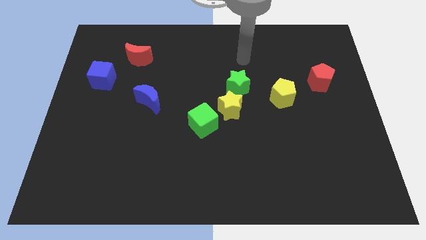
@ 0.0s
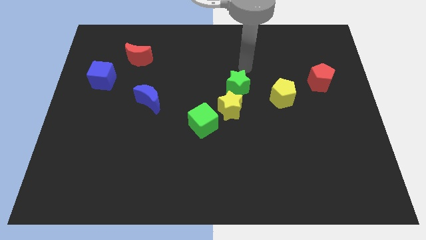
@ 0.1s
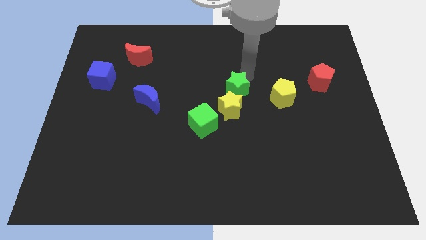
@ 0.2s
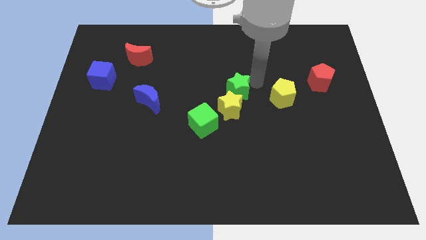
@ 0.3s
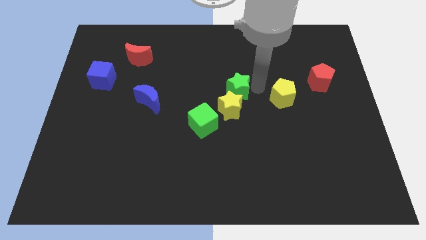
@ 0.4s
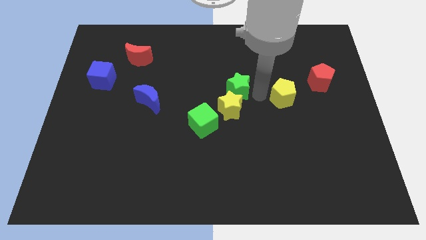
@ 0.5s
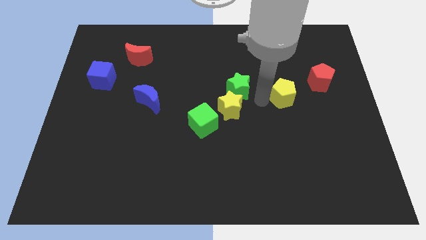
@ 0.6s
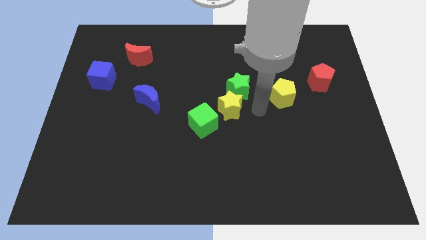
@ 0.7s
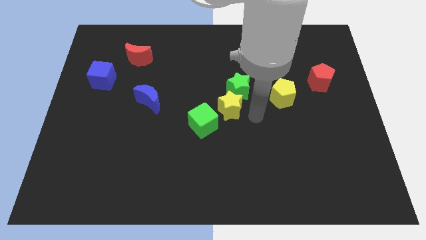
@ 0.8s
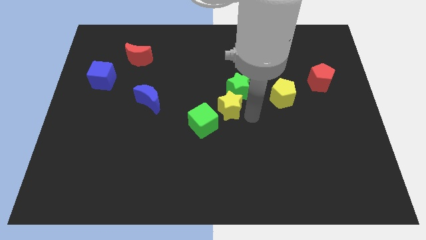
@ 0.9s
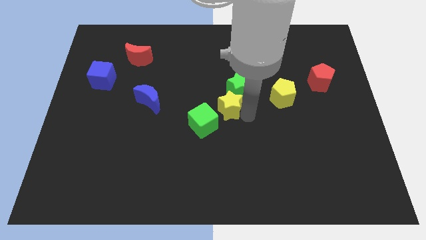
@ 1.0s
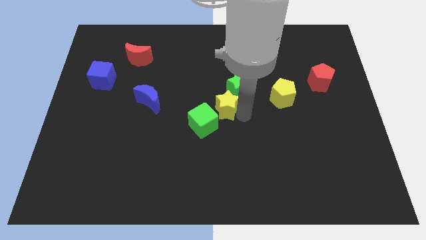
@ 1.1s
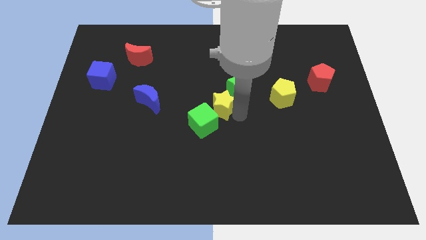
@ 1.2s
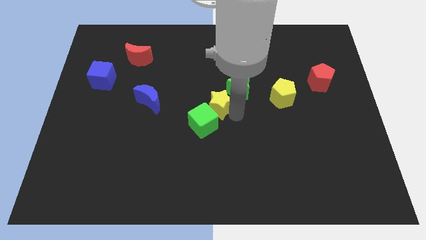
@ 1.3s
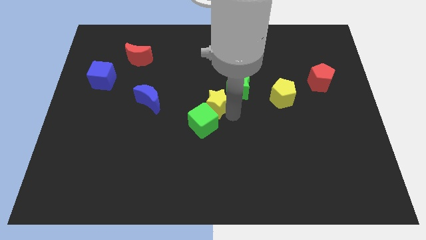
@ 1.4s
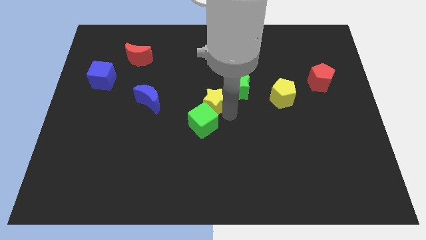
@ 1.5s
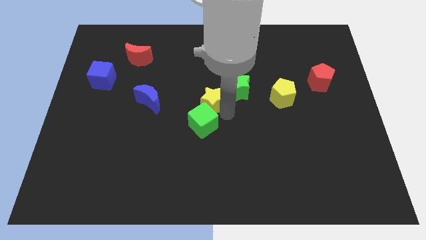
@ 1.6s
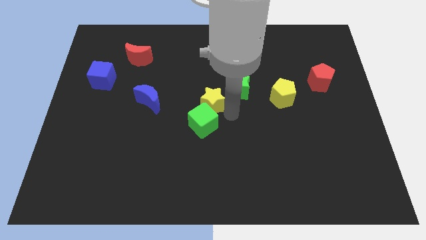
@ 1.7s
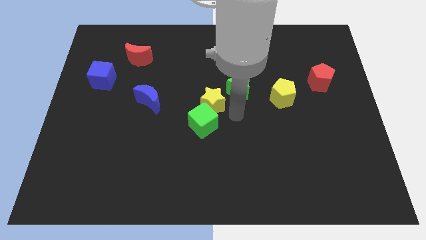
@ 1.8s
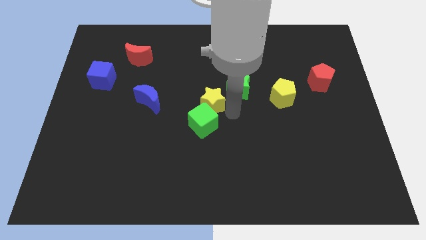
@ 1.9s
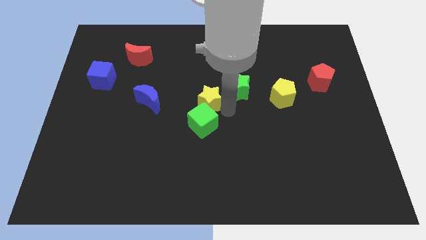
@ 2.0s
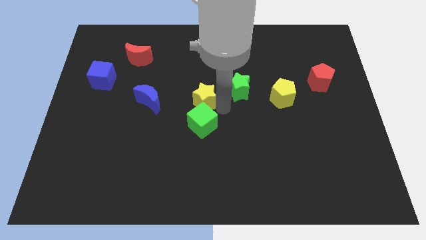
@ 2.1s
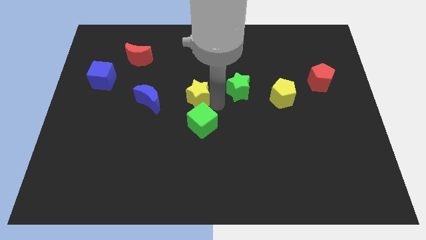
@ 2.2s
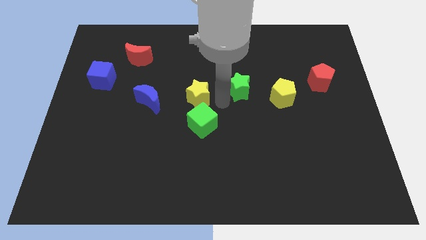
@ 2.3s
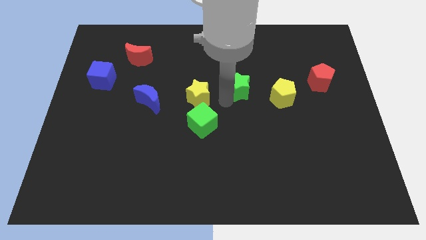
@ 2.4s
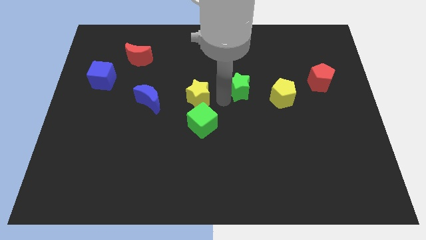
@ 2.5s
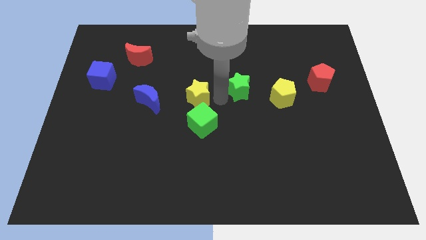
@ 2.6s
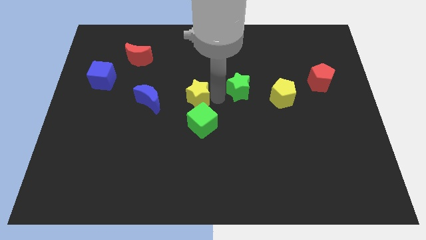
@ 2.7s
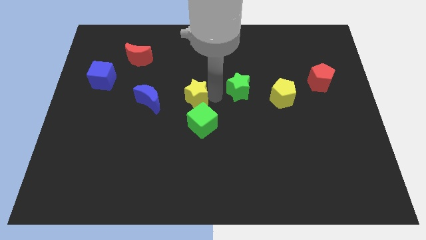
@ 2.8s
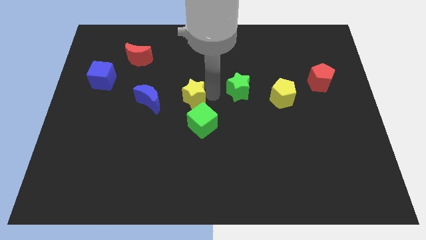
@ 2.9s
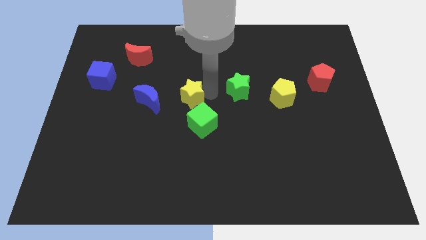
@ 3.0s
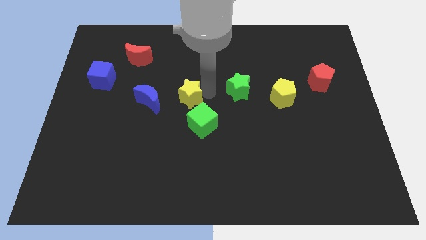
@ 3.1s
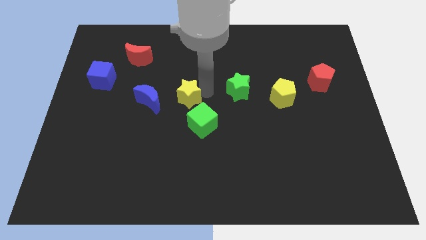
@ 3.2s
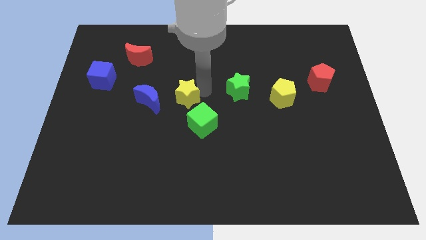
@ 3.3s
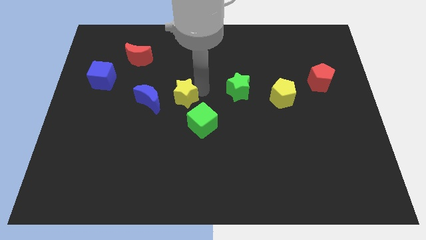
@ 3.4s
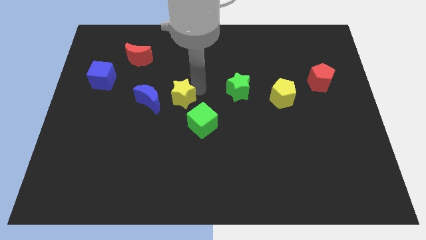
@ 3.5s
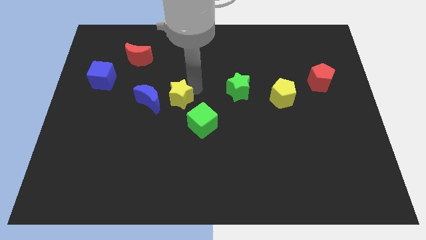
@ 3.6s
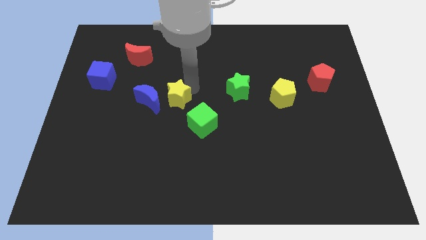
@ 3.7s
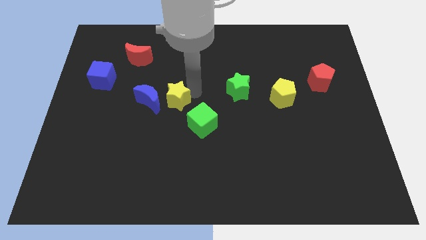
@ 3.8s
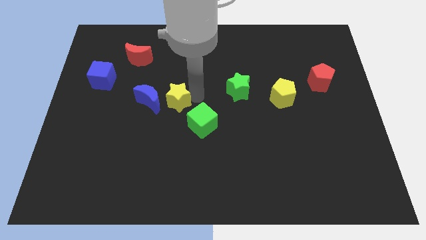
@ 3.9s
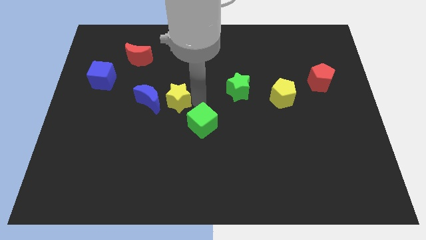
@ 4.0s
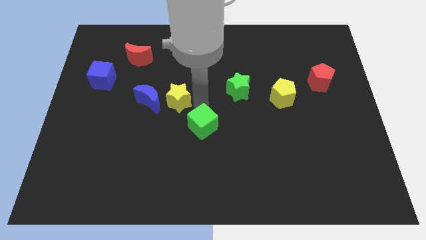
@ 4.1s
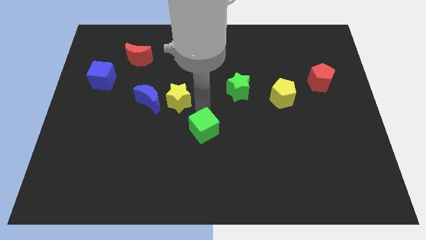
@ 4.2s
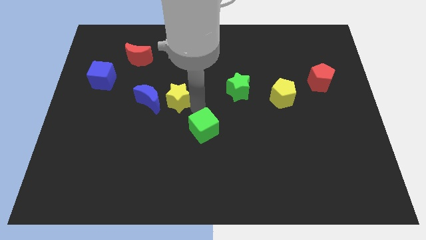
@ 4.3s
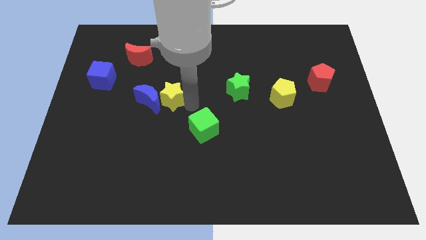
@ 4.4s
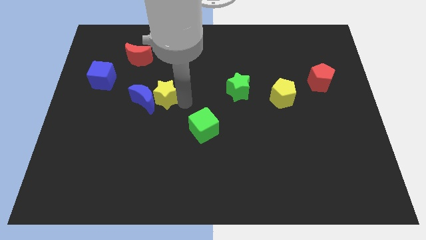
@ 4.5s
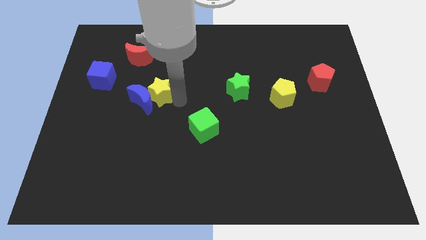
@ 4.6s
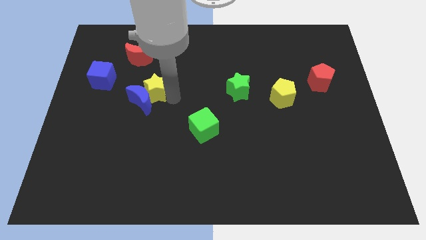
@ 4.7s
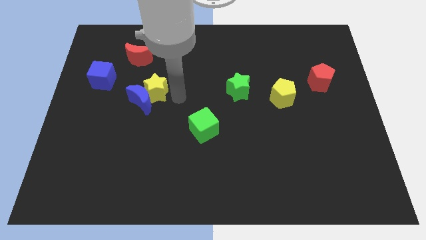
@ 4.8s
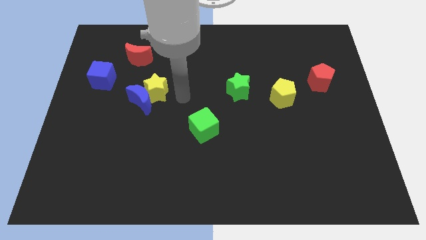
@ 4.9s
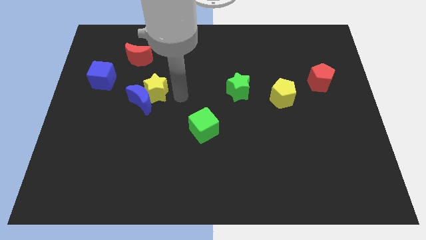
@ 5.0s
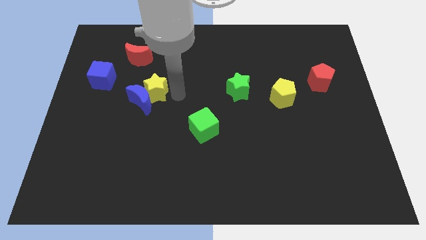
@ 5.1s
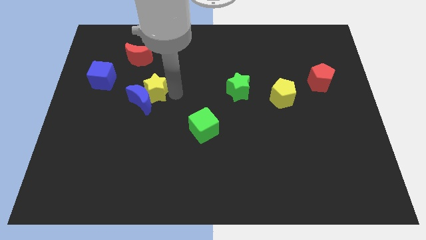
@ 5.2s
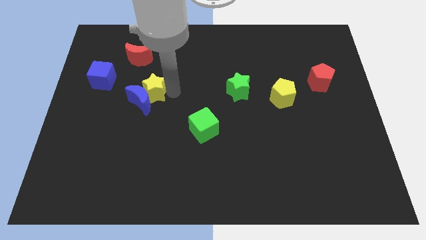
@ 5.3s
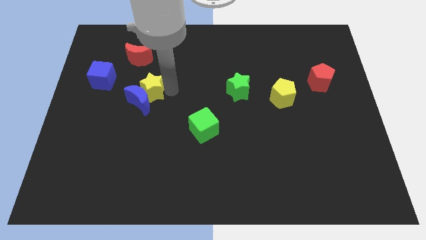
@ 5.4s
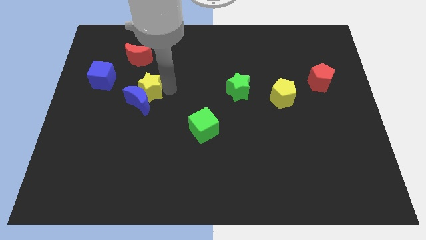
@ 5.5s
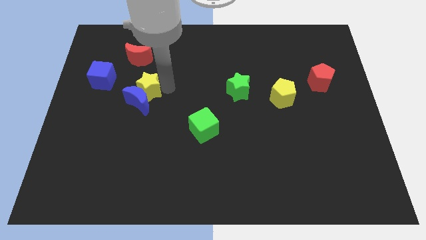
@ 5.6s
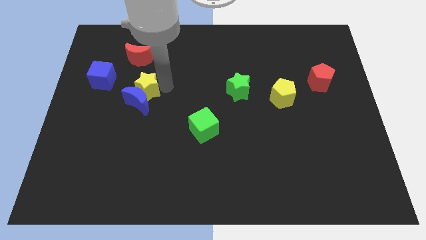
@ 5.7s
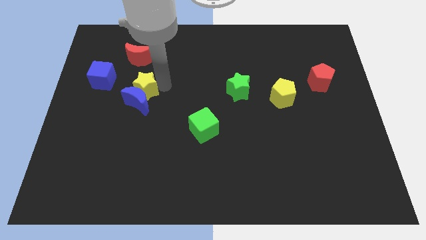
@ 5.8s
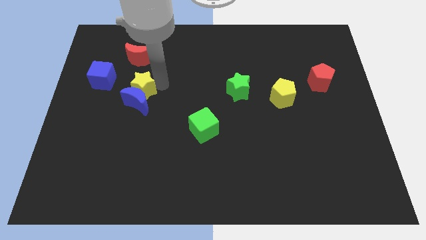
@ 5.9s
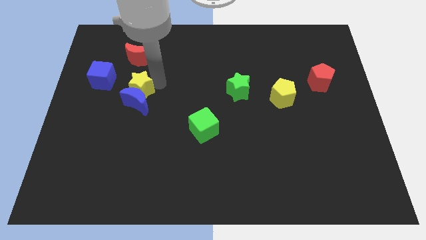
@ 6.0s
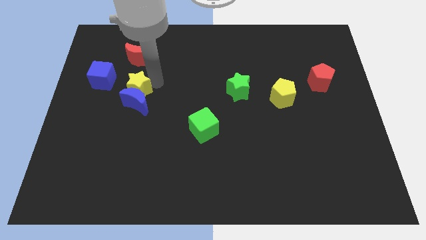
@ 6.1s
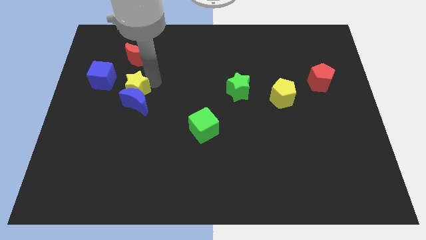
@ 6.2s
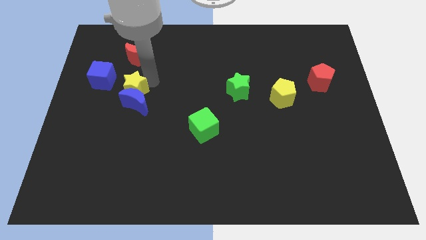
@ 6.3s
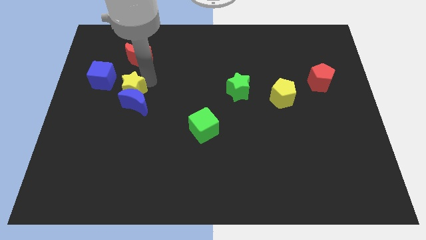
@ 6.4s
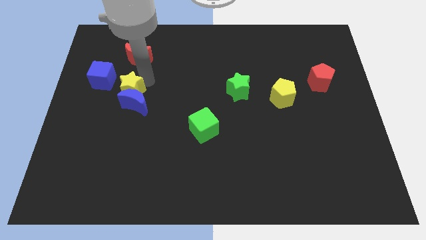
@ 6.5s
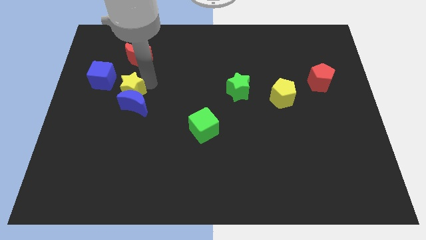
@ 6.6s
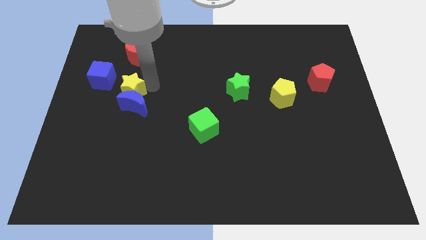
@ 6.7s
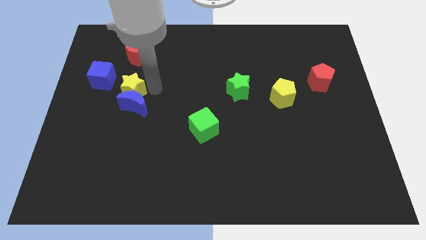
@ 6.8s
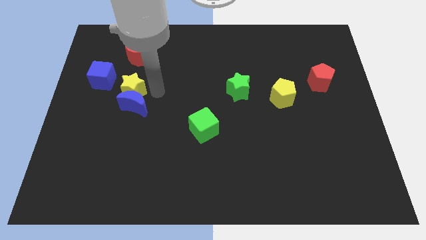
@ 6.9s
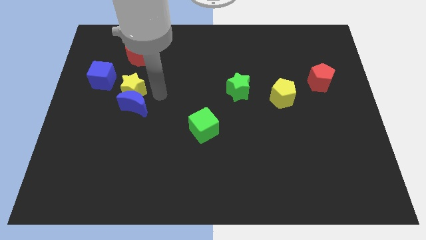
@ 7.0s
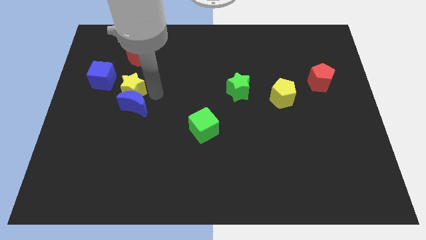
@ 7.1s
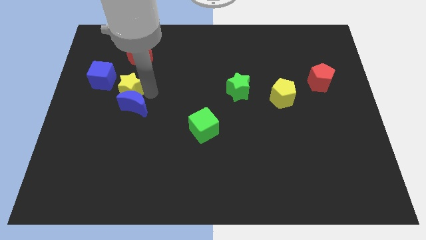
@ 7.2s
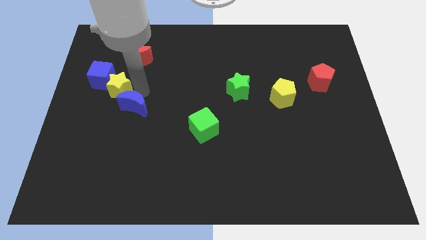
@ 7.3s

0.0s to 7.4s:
move the yellow star close to the blue cube
